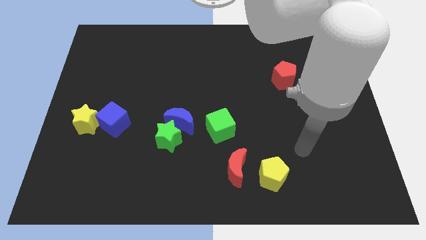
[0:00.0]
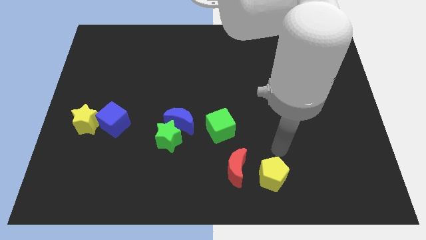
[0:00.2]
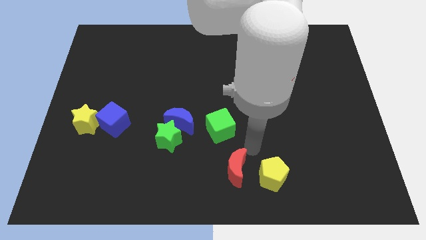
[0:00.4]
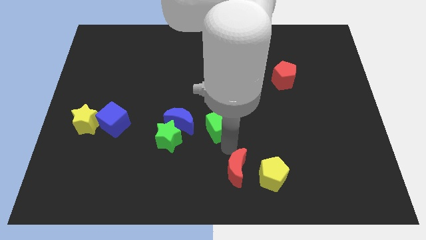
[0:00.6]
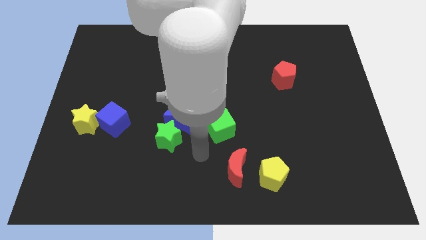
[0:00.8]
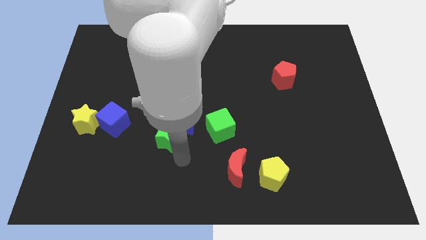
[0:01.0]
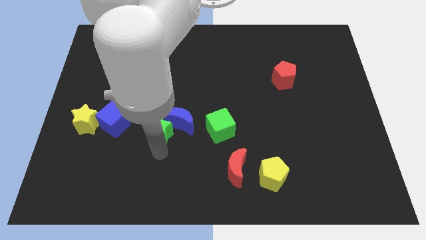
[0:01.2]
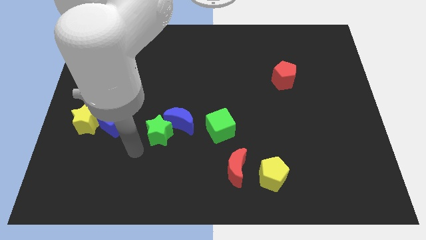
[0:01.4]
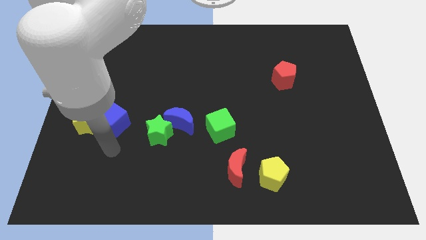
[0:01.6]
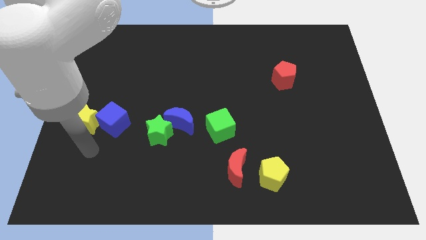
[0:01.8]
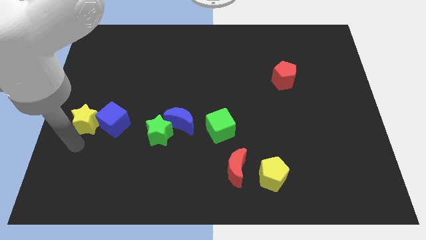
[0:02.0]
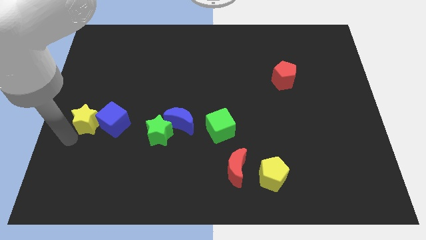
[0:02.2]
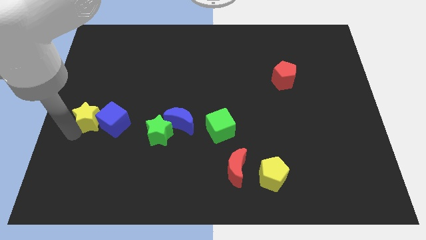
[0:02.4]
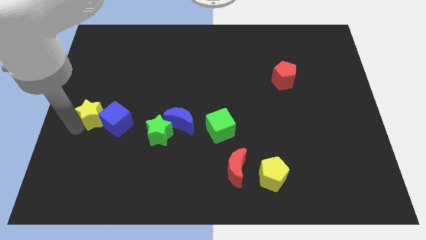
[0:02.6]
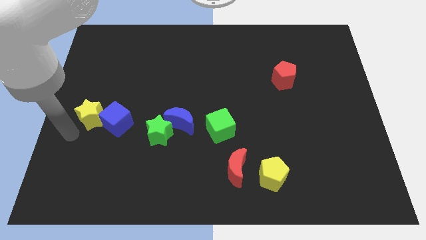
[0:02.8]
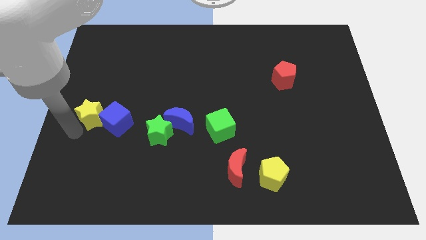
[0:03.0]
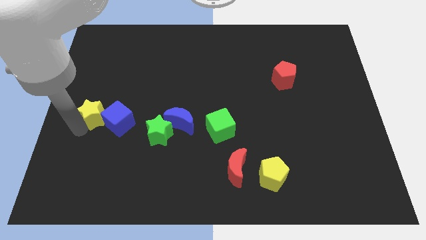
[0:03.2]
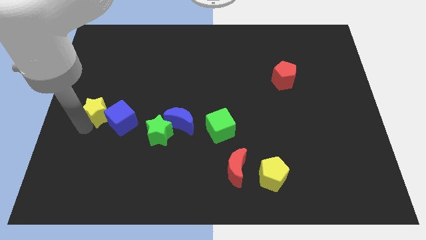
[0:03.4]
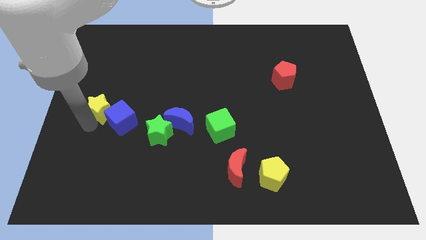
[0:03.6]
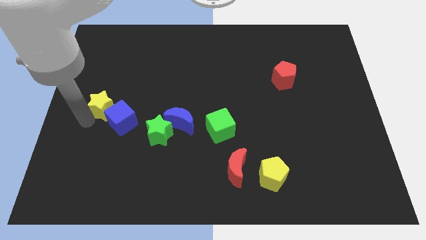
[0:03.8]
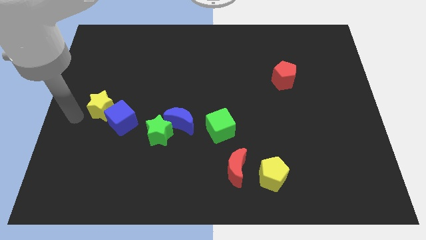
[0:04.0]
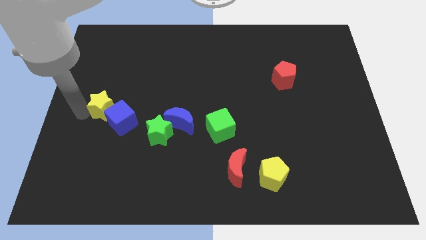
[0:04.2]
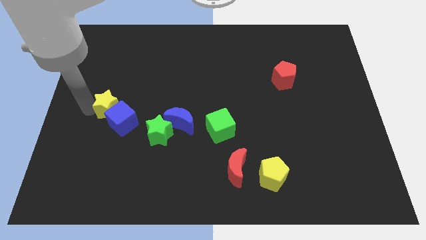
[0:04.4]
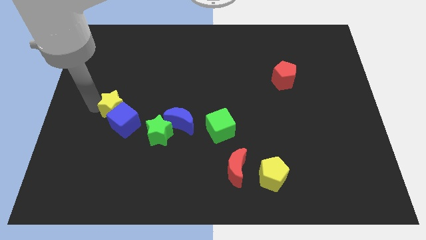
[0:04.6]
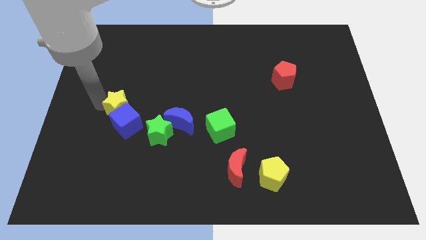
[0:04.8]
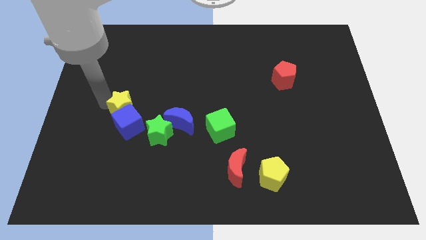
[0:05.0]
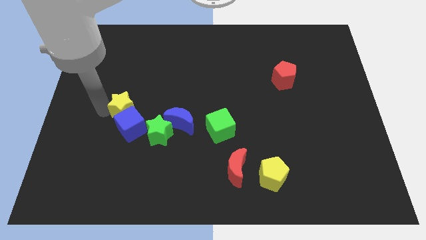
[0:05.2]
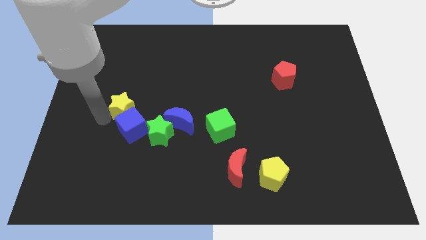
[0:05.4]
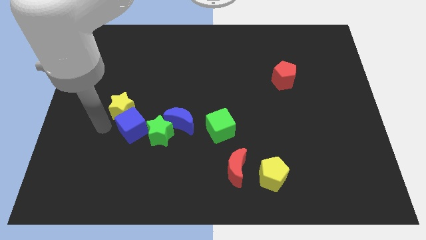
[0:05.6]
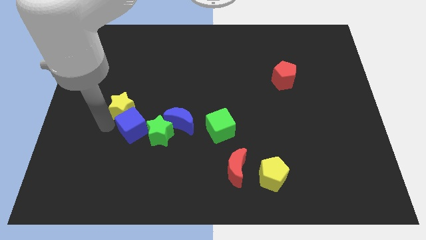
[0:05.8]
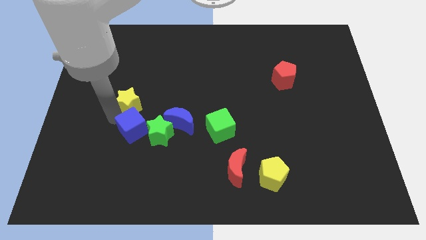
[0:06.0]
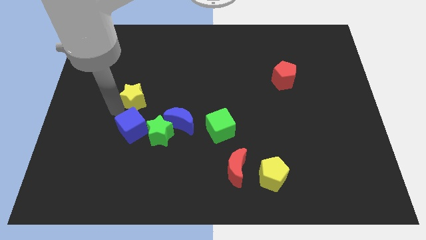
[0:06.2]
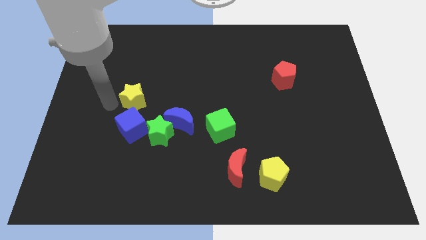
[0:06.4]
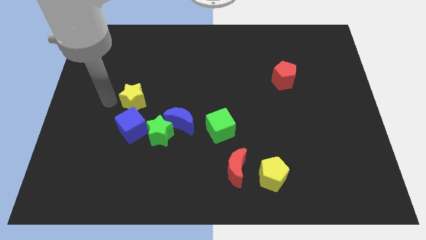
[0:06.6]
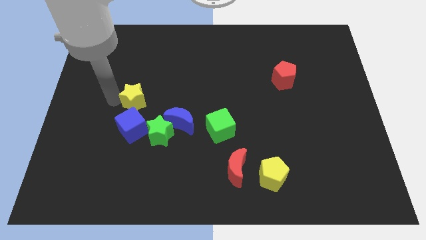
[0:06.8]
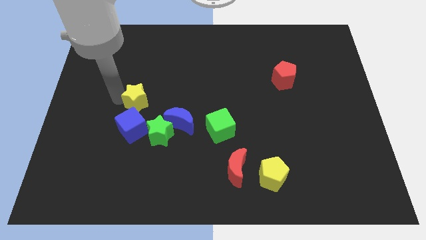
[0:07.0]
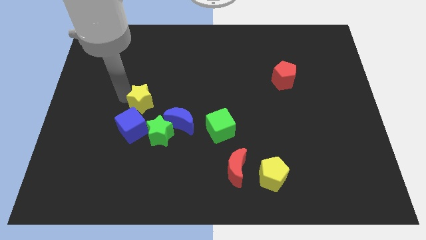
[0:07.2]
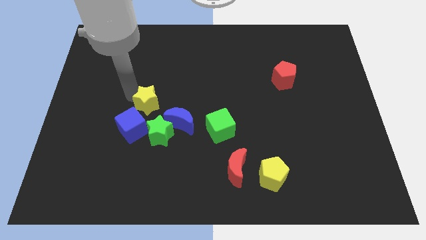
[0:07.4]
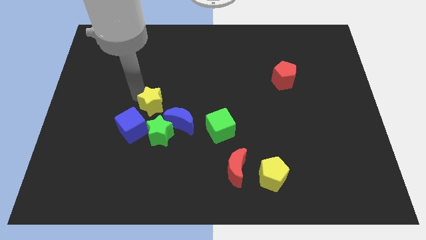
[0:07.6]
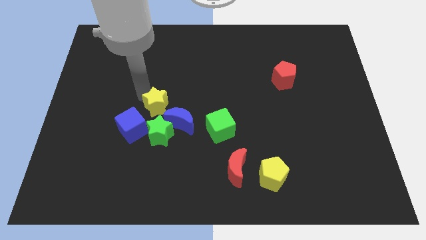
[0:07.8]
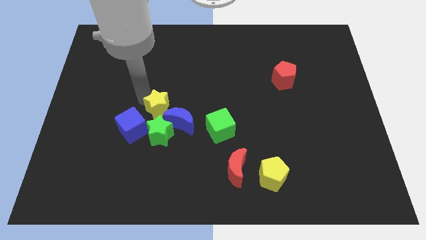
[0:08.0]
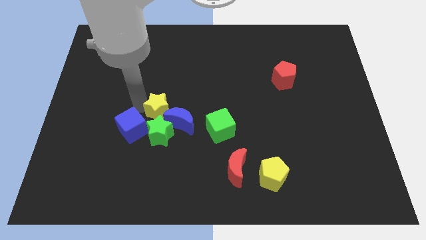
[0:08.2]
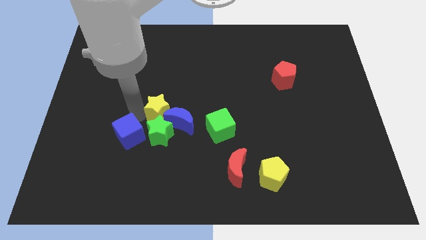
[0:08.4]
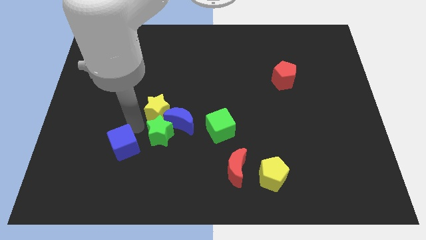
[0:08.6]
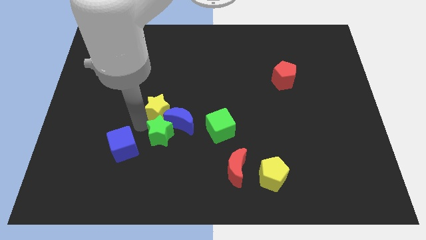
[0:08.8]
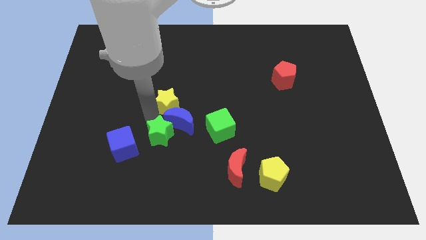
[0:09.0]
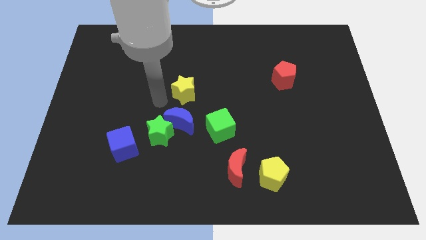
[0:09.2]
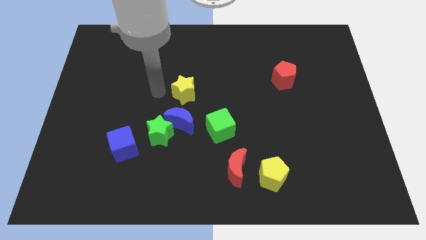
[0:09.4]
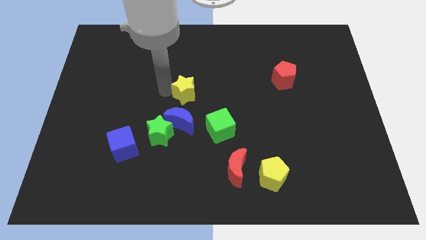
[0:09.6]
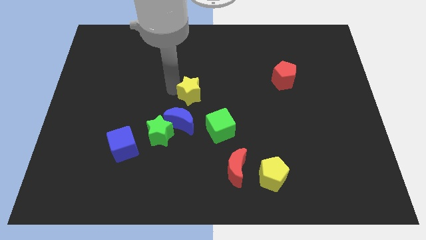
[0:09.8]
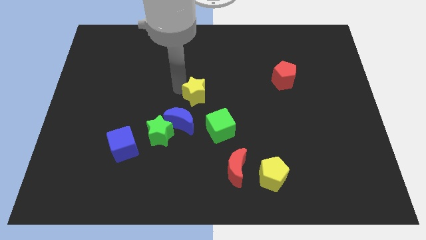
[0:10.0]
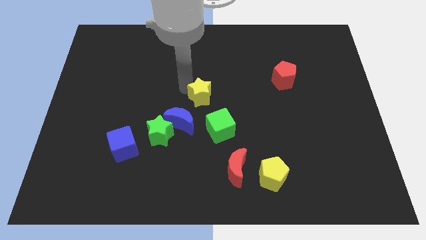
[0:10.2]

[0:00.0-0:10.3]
push the yellow star above the green cube

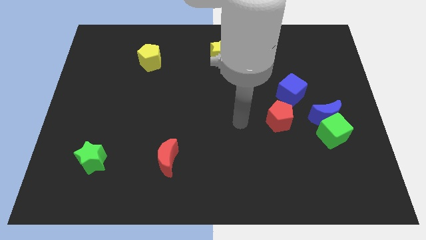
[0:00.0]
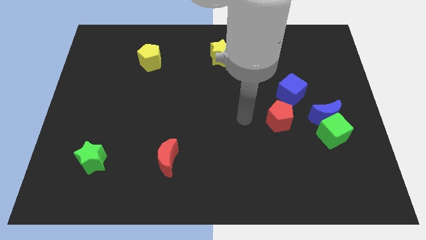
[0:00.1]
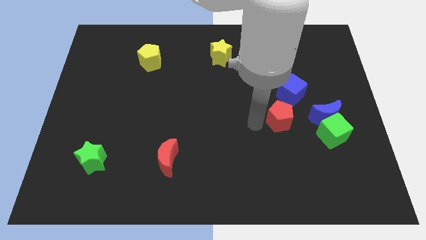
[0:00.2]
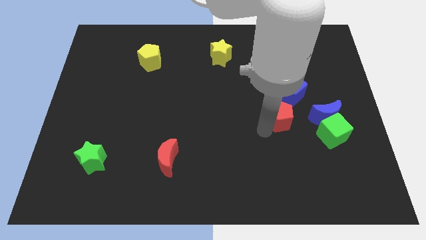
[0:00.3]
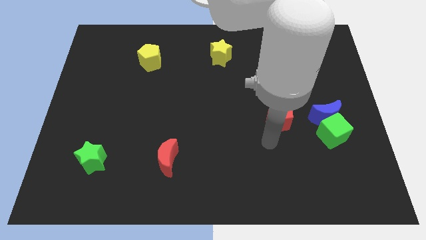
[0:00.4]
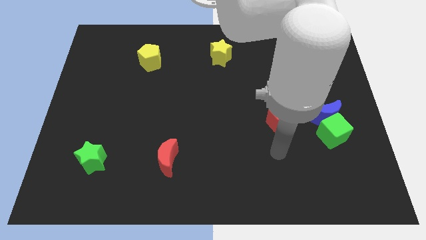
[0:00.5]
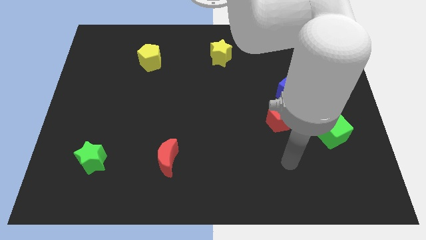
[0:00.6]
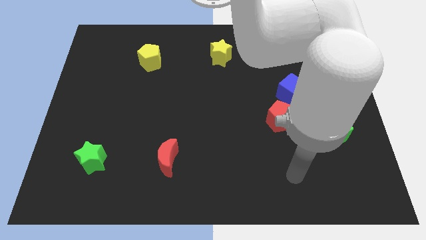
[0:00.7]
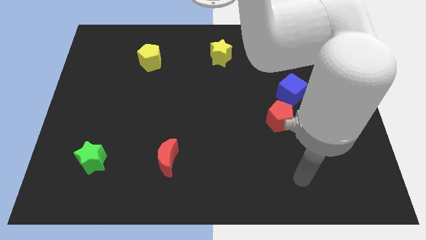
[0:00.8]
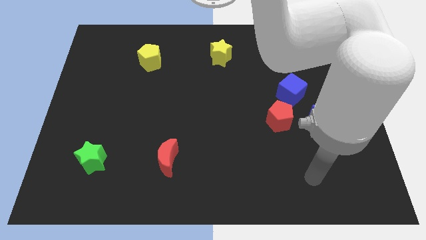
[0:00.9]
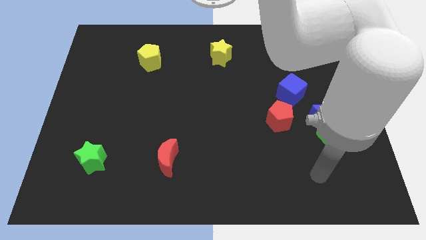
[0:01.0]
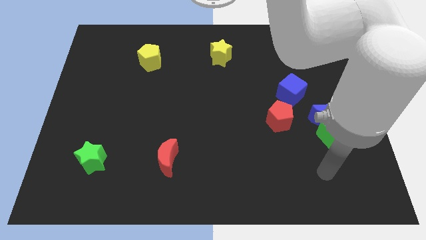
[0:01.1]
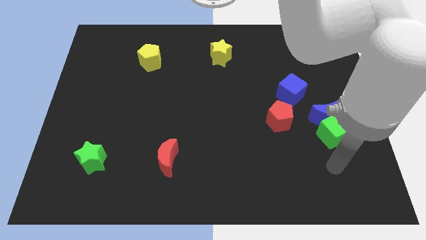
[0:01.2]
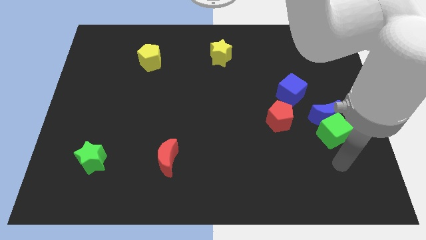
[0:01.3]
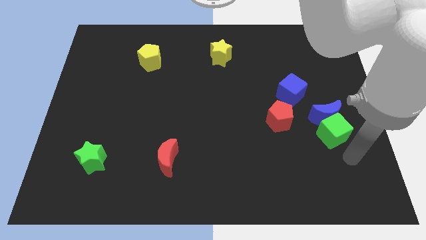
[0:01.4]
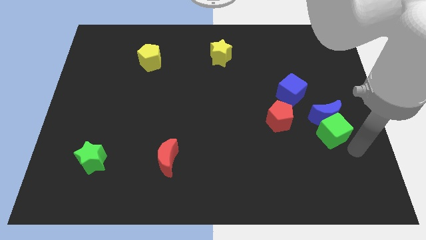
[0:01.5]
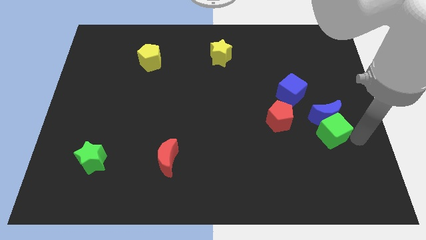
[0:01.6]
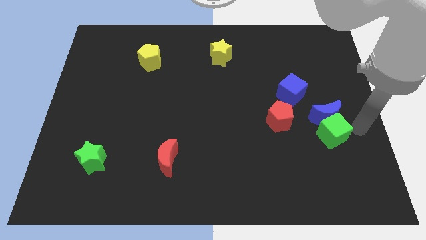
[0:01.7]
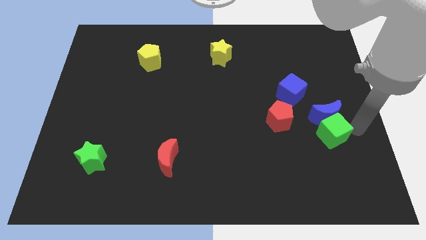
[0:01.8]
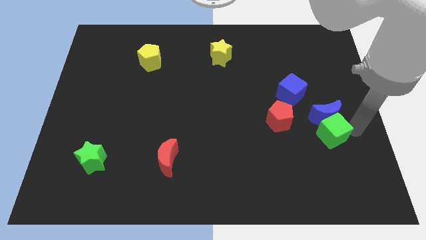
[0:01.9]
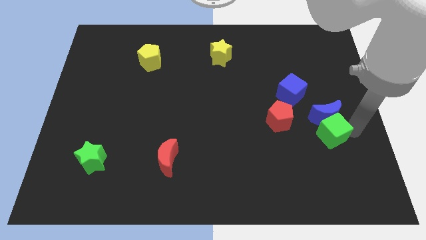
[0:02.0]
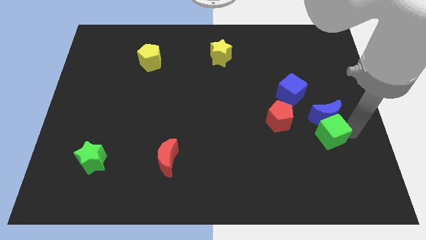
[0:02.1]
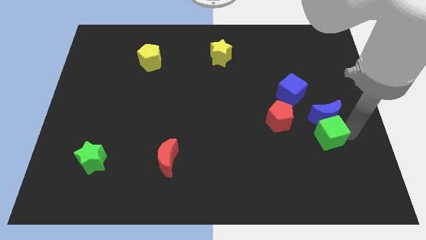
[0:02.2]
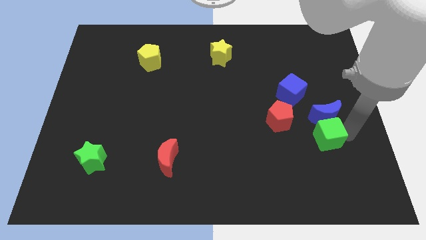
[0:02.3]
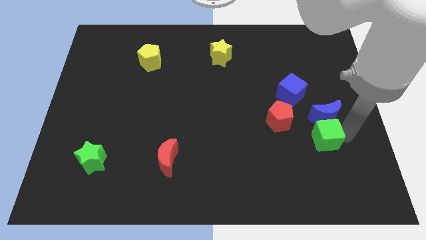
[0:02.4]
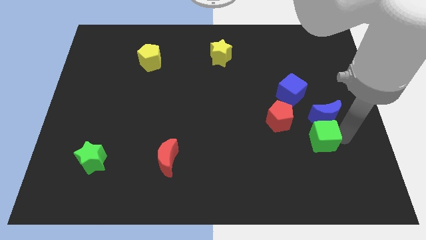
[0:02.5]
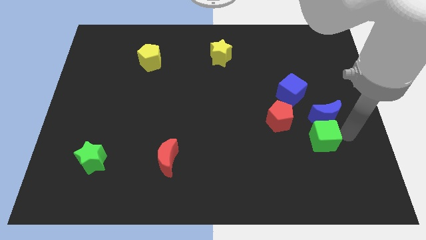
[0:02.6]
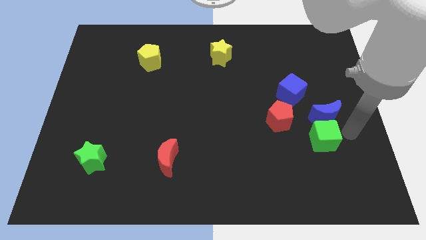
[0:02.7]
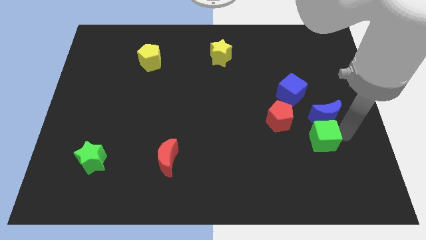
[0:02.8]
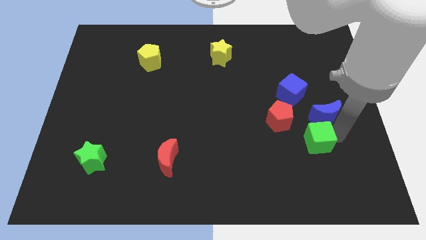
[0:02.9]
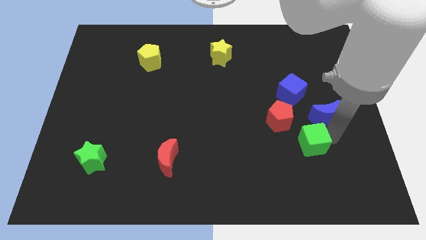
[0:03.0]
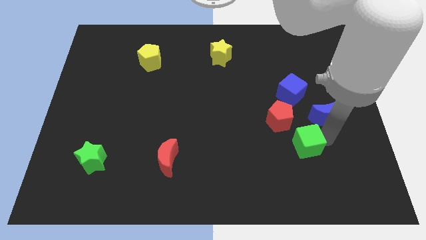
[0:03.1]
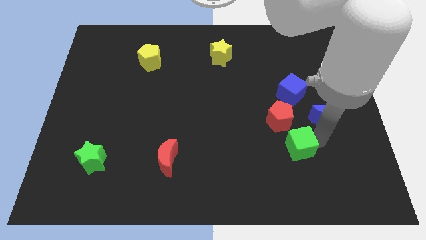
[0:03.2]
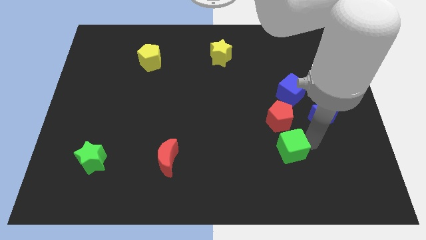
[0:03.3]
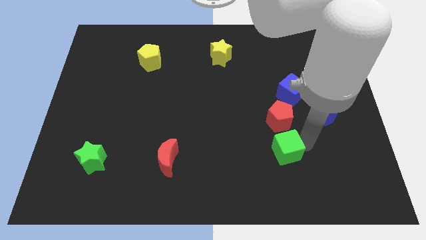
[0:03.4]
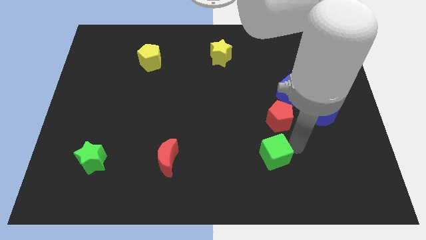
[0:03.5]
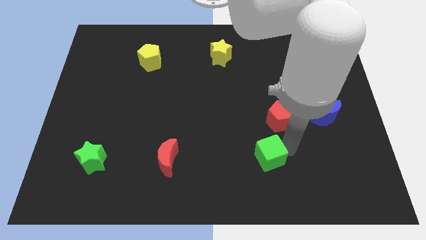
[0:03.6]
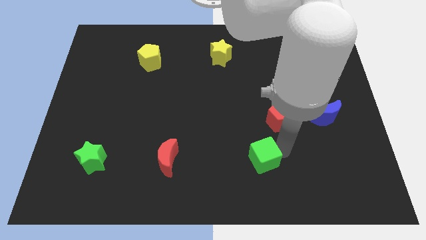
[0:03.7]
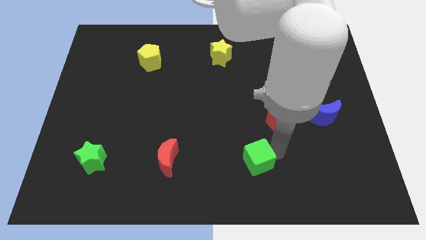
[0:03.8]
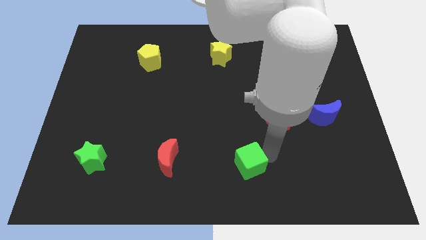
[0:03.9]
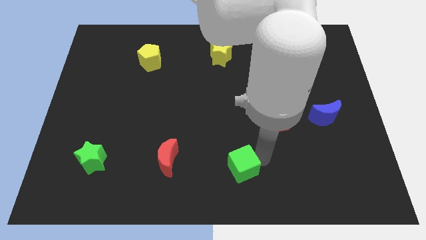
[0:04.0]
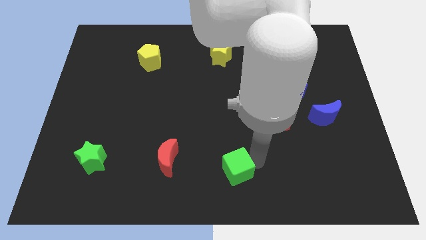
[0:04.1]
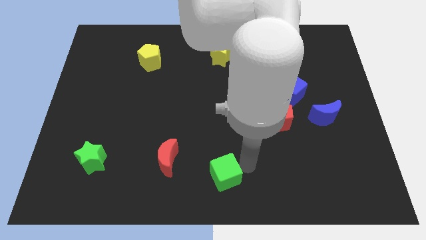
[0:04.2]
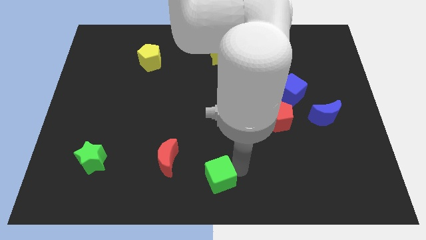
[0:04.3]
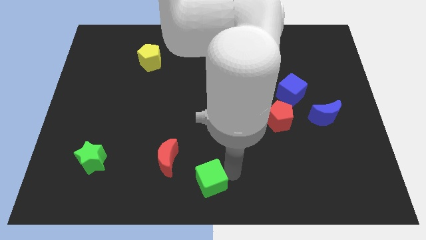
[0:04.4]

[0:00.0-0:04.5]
push the green cube to the bottom right side of the red moon
